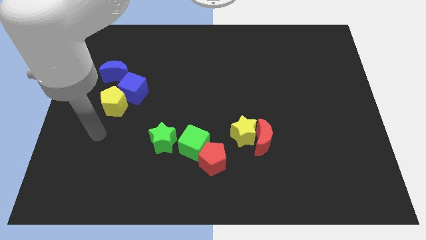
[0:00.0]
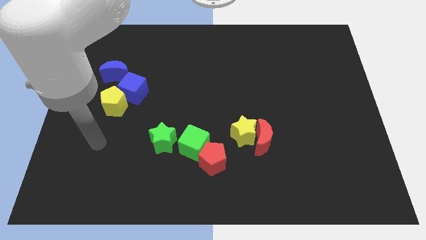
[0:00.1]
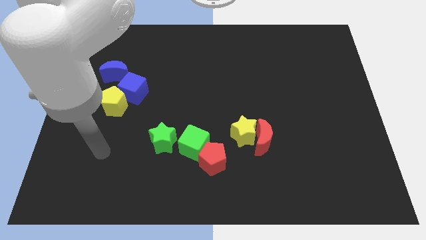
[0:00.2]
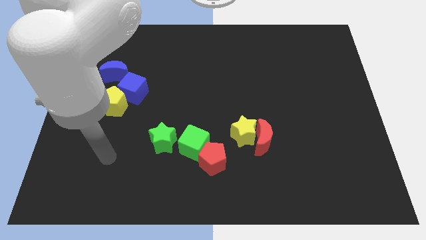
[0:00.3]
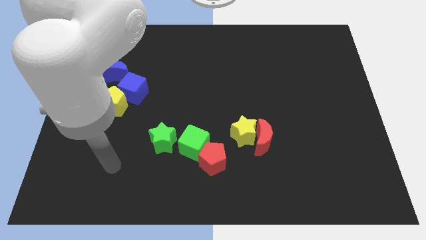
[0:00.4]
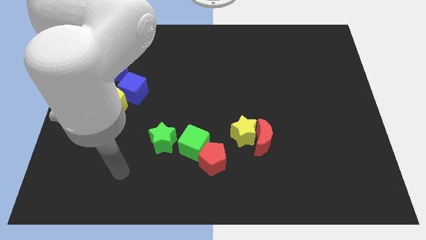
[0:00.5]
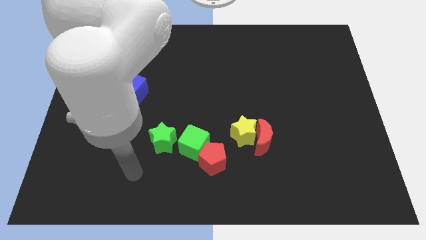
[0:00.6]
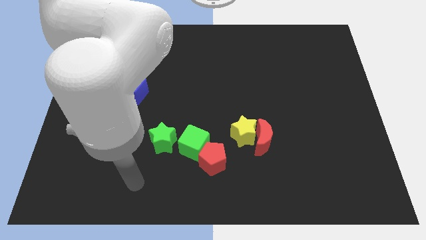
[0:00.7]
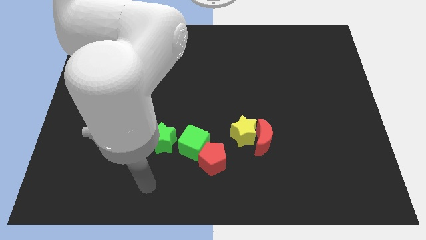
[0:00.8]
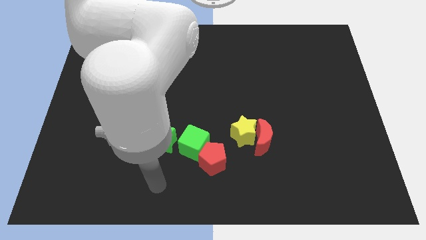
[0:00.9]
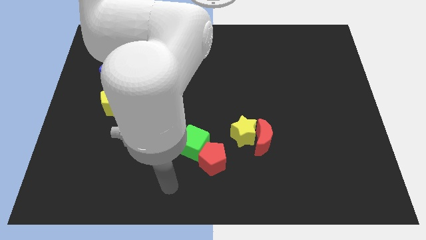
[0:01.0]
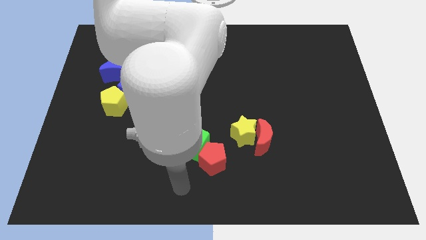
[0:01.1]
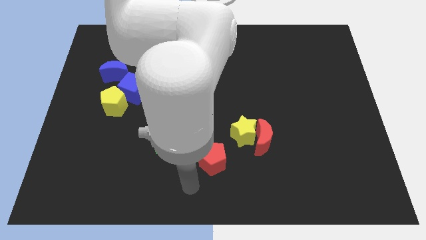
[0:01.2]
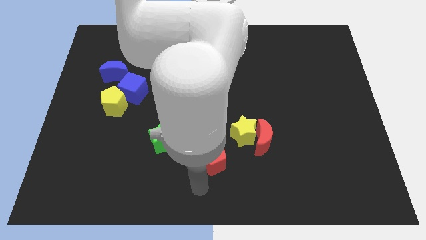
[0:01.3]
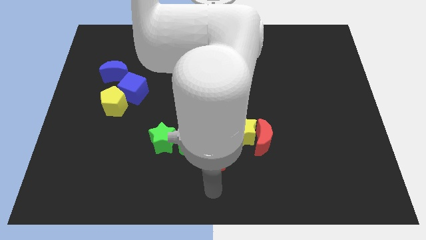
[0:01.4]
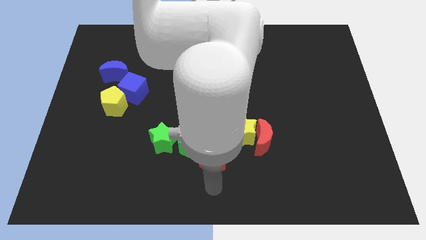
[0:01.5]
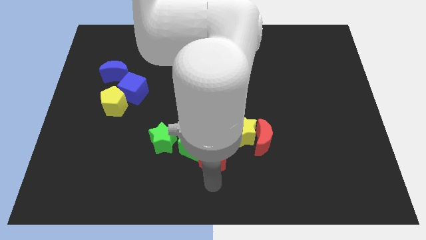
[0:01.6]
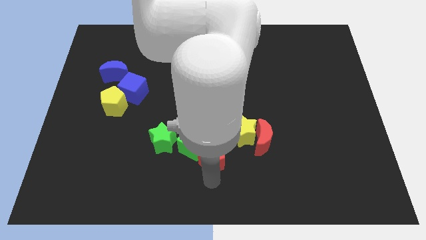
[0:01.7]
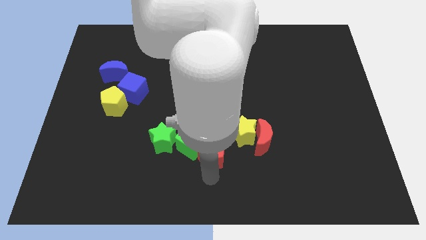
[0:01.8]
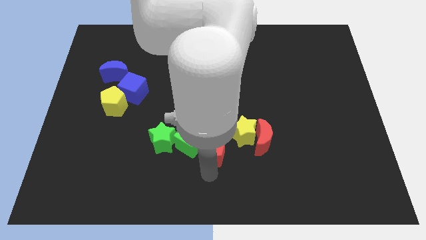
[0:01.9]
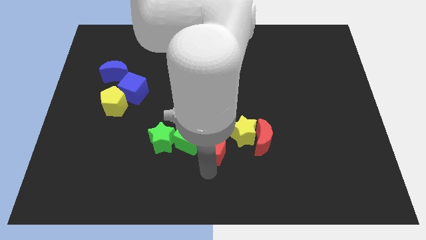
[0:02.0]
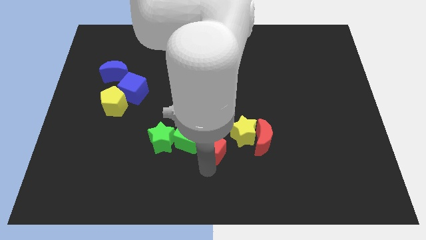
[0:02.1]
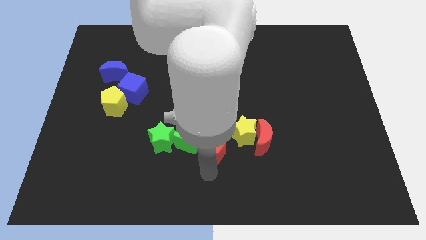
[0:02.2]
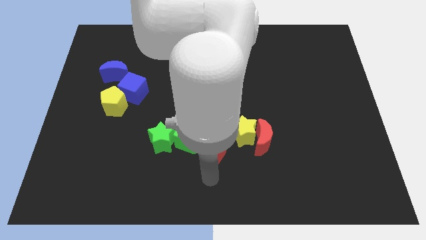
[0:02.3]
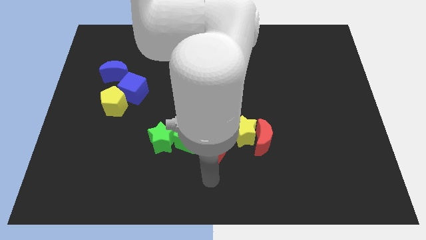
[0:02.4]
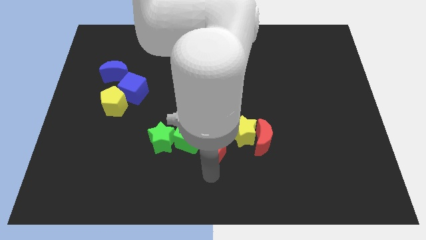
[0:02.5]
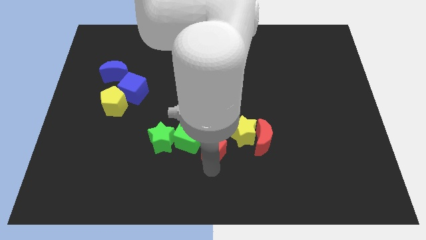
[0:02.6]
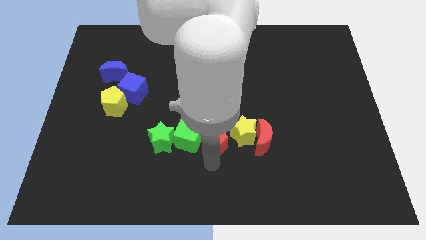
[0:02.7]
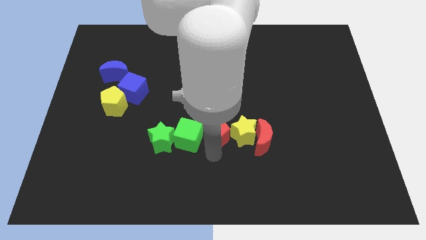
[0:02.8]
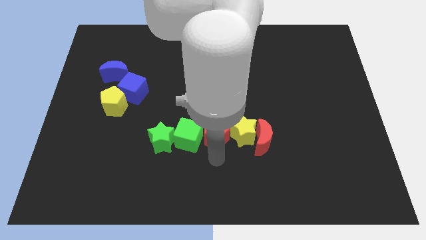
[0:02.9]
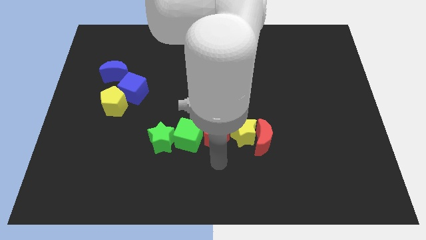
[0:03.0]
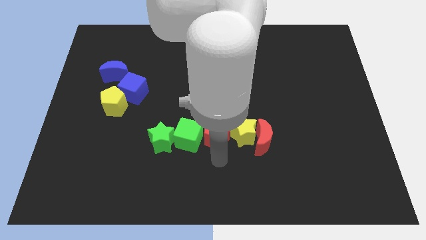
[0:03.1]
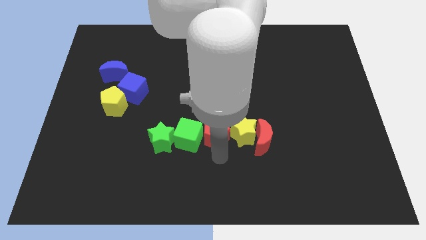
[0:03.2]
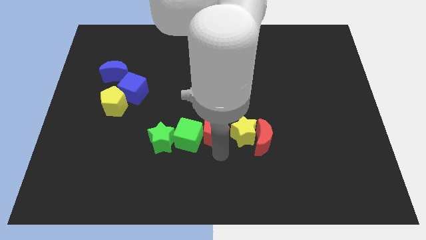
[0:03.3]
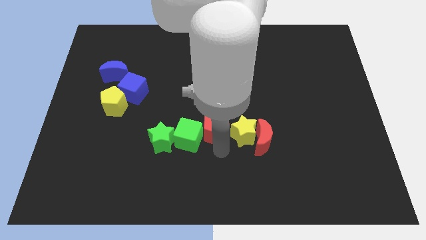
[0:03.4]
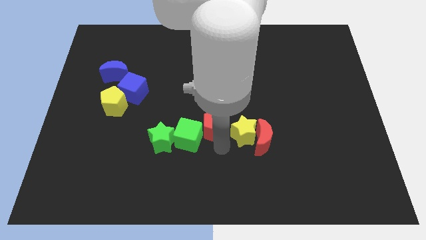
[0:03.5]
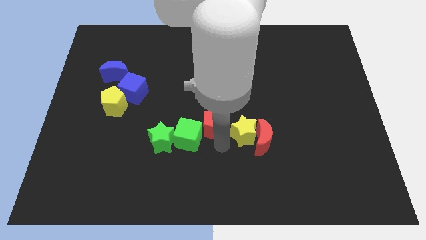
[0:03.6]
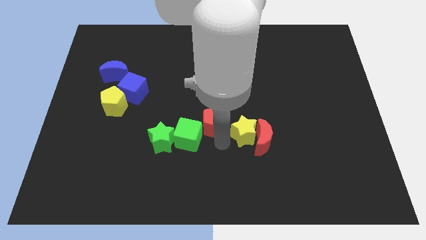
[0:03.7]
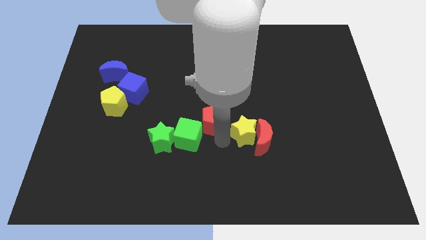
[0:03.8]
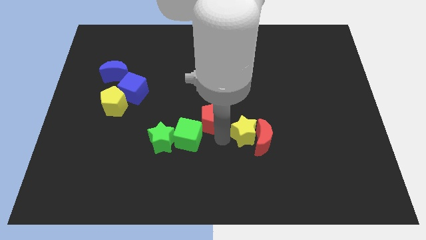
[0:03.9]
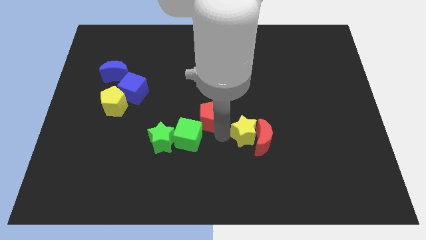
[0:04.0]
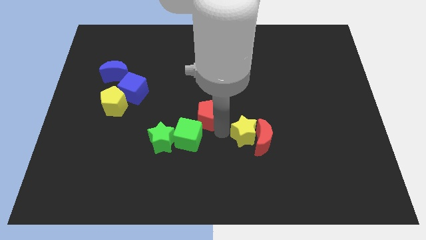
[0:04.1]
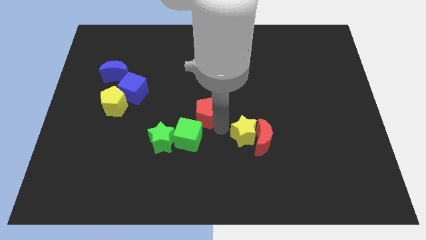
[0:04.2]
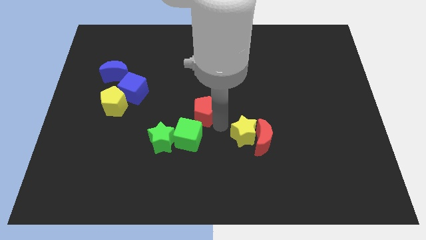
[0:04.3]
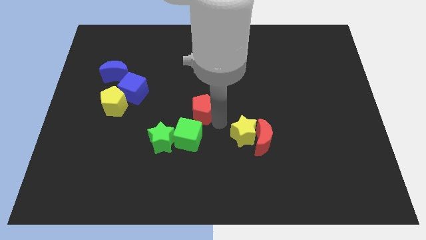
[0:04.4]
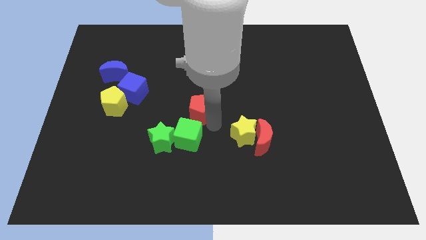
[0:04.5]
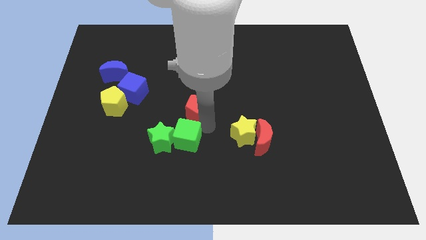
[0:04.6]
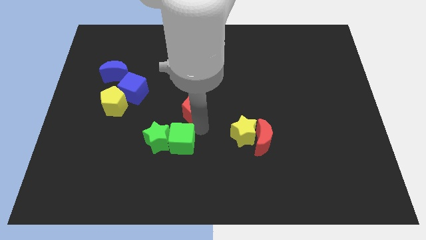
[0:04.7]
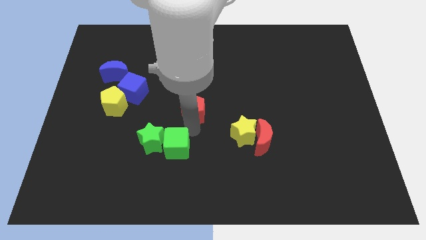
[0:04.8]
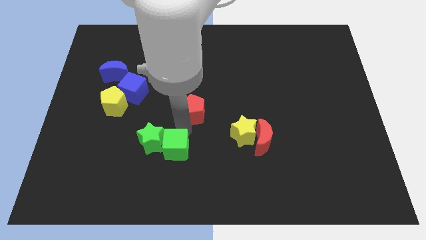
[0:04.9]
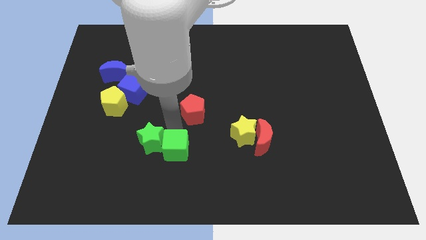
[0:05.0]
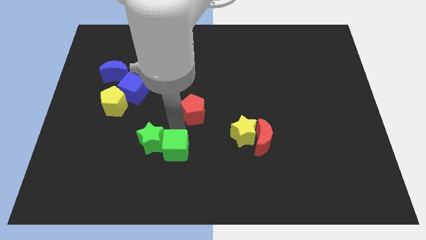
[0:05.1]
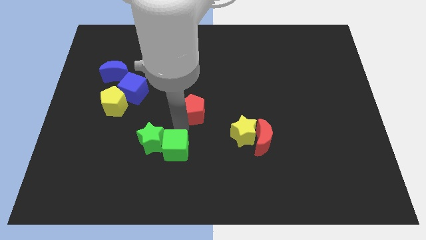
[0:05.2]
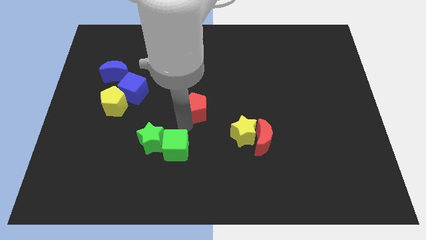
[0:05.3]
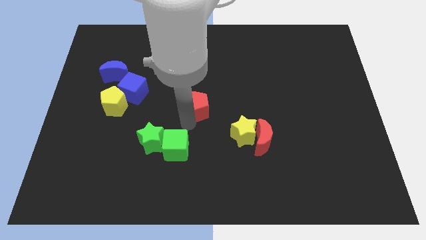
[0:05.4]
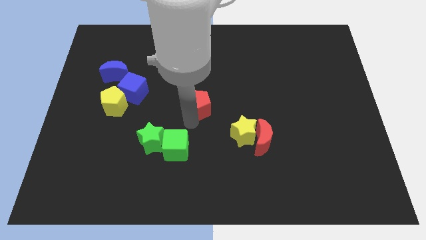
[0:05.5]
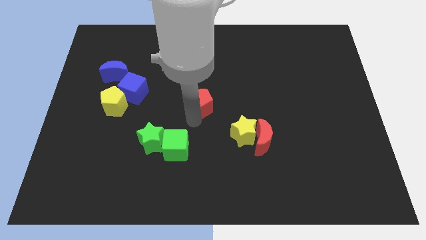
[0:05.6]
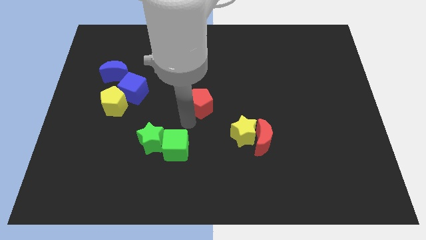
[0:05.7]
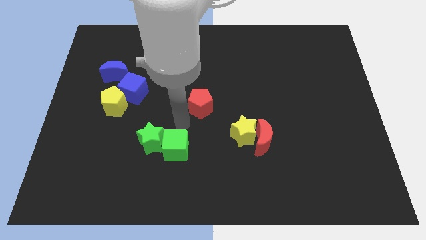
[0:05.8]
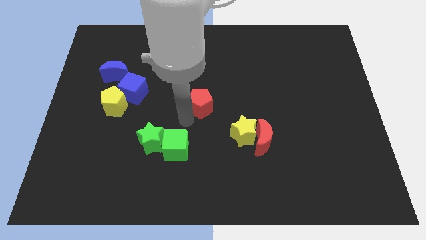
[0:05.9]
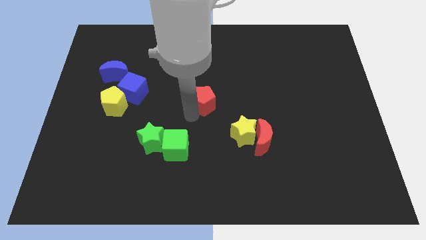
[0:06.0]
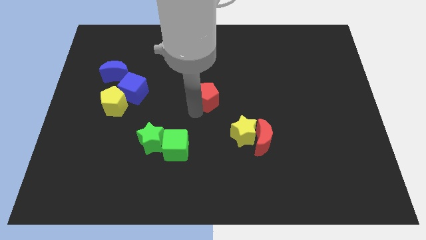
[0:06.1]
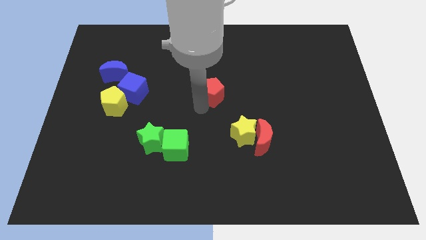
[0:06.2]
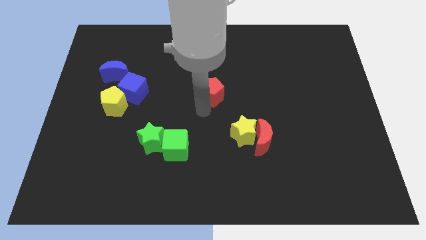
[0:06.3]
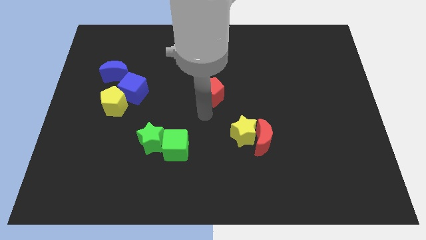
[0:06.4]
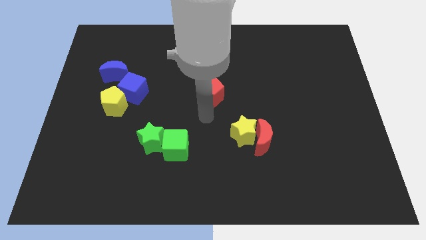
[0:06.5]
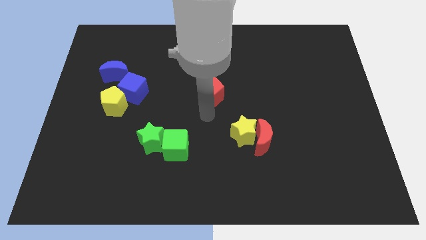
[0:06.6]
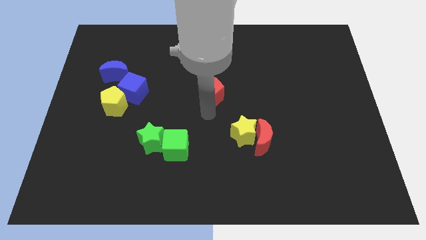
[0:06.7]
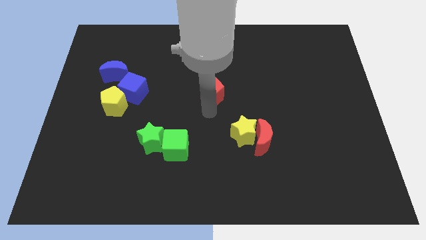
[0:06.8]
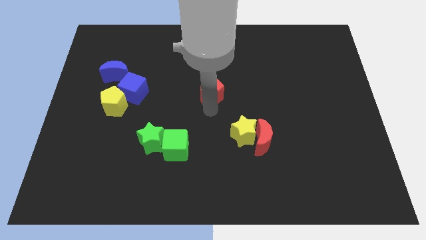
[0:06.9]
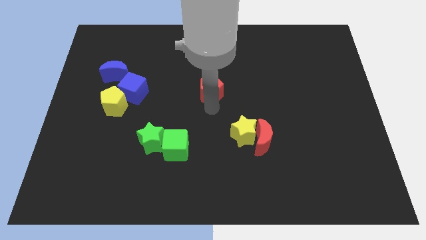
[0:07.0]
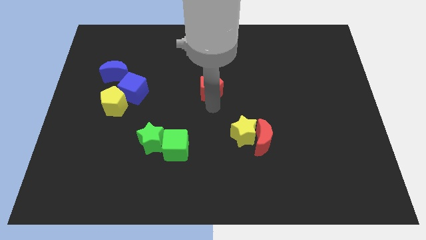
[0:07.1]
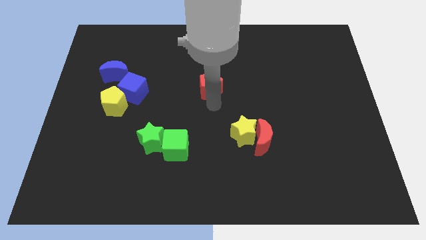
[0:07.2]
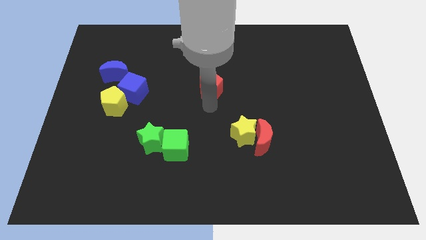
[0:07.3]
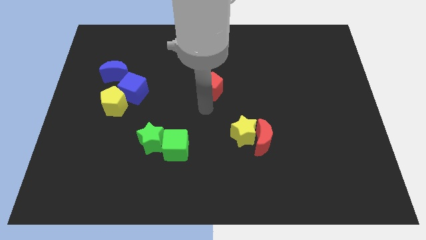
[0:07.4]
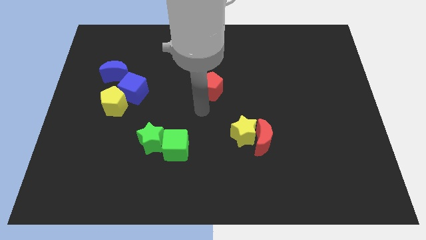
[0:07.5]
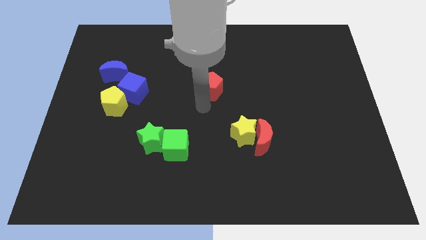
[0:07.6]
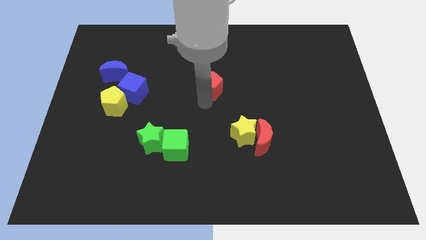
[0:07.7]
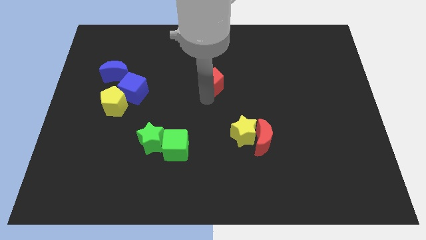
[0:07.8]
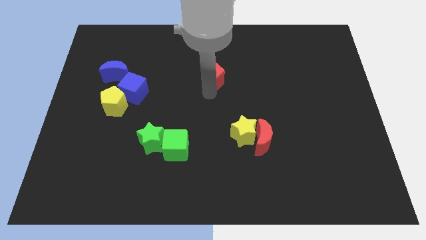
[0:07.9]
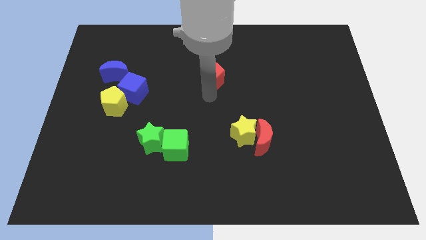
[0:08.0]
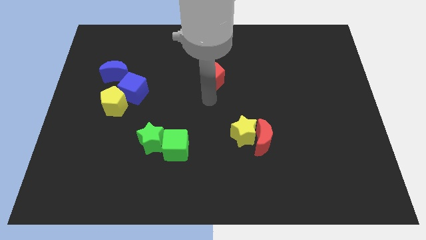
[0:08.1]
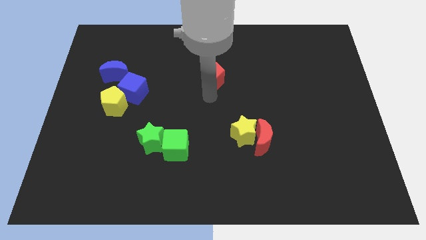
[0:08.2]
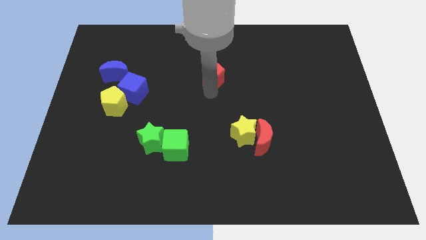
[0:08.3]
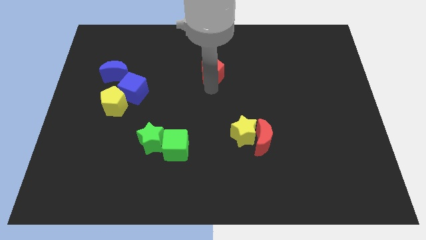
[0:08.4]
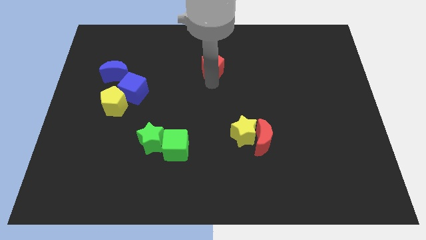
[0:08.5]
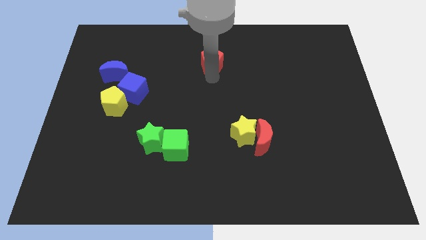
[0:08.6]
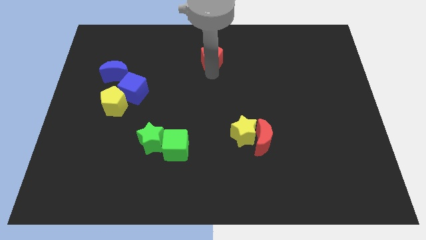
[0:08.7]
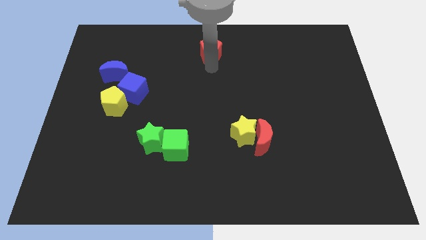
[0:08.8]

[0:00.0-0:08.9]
push the red pentagon to the top side
